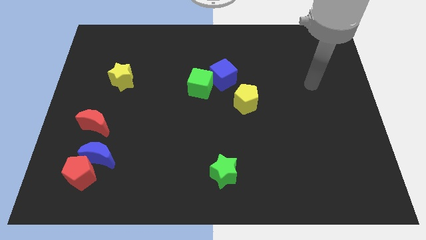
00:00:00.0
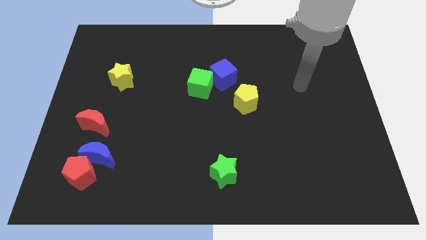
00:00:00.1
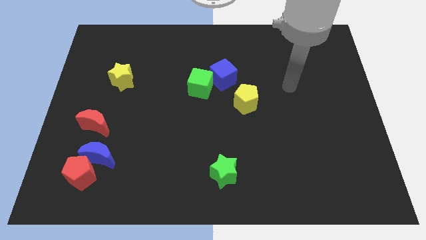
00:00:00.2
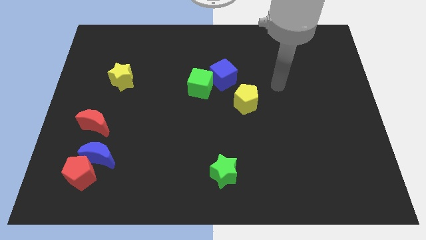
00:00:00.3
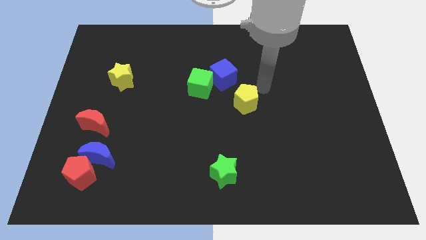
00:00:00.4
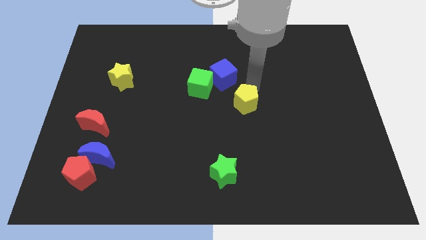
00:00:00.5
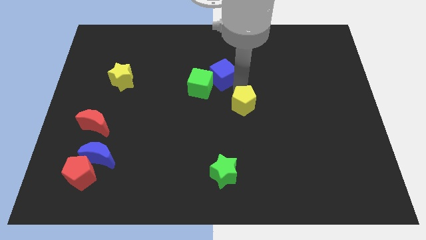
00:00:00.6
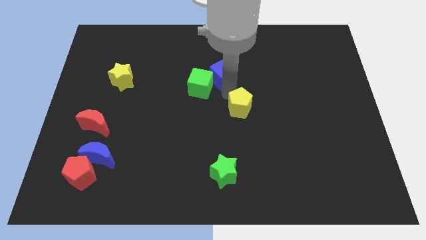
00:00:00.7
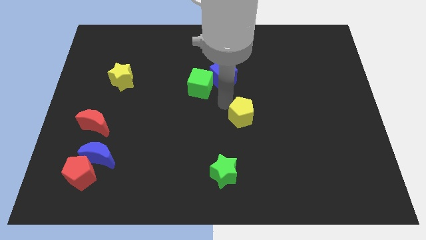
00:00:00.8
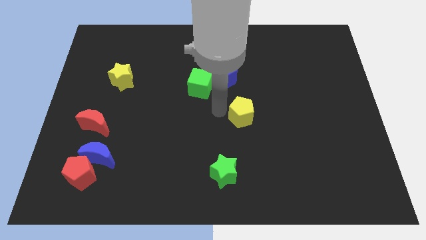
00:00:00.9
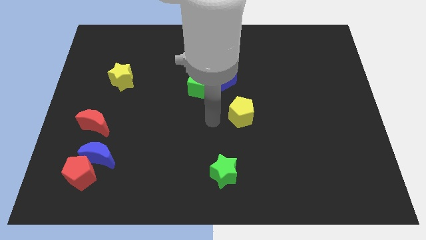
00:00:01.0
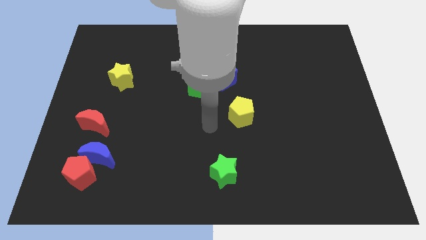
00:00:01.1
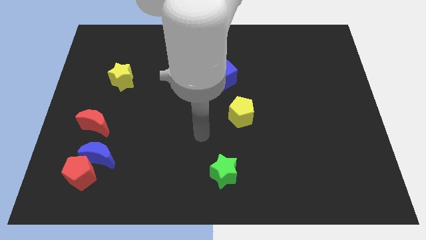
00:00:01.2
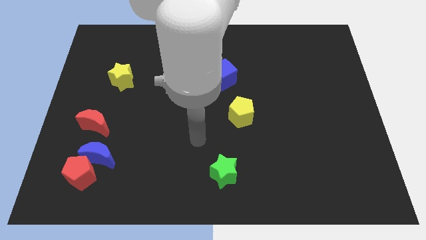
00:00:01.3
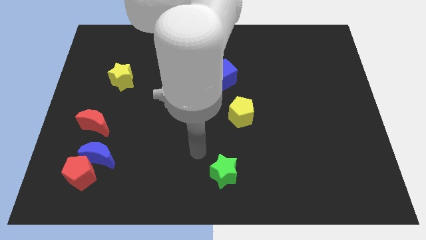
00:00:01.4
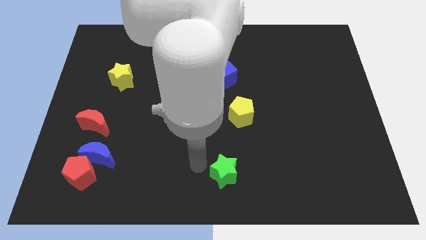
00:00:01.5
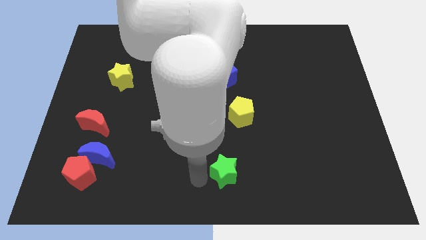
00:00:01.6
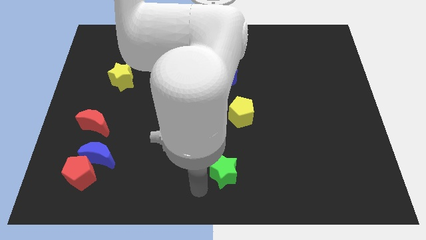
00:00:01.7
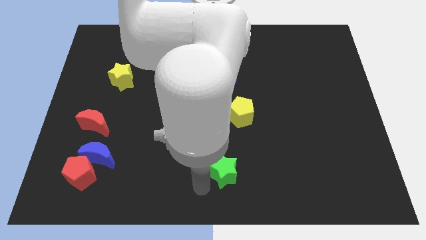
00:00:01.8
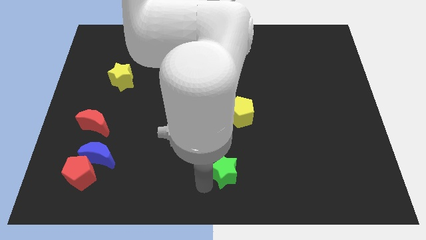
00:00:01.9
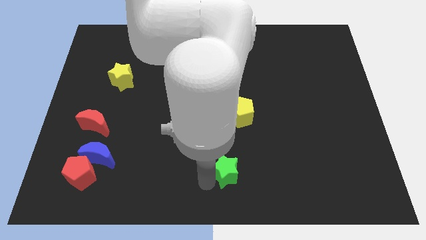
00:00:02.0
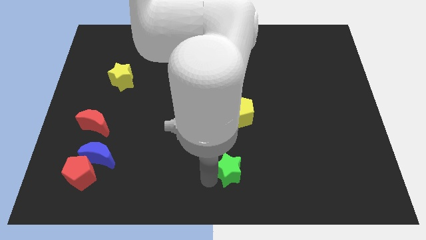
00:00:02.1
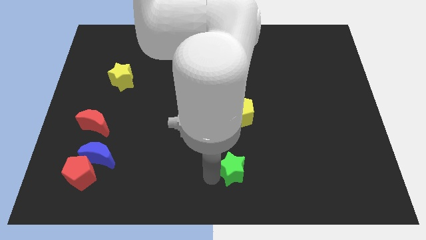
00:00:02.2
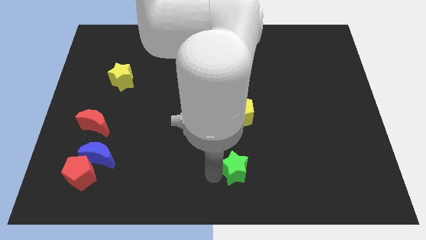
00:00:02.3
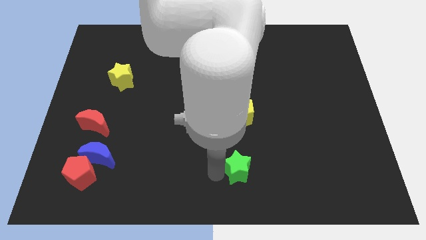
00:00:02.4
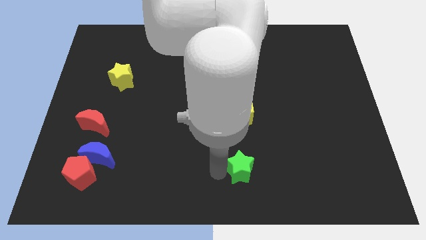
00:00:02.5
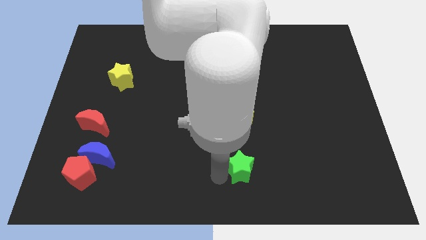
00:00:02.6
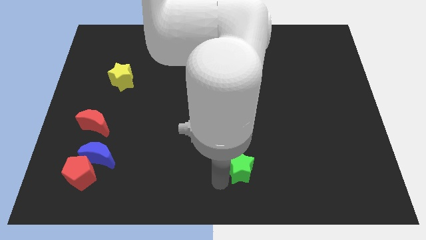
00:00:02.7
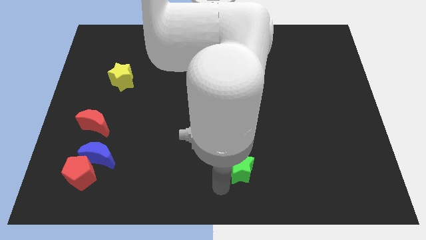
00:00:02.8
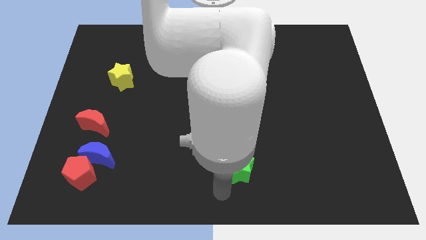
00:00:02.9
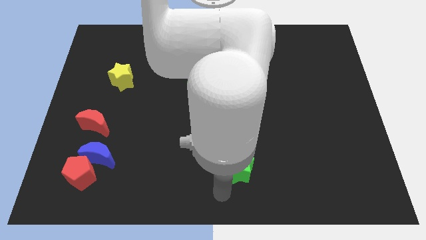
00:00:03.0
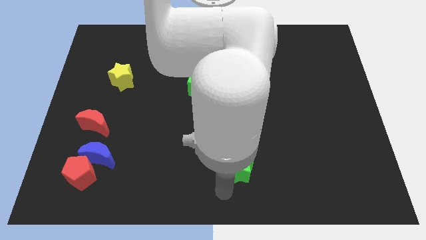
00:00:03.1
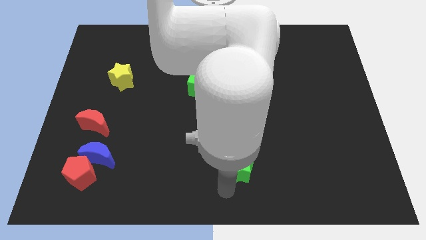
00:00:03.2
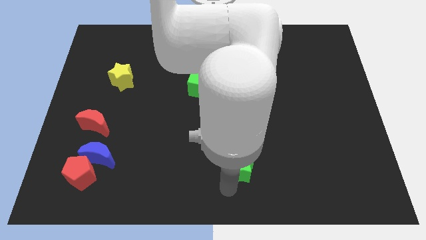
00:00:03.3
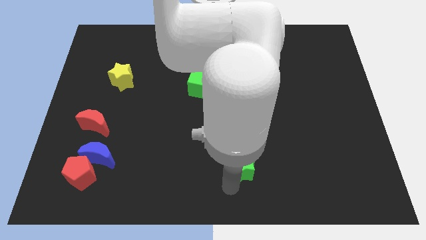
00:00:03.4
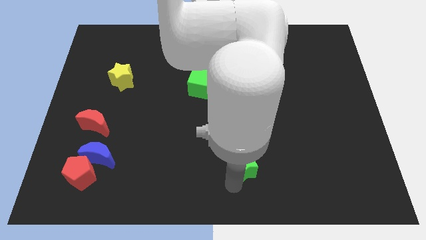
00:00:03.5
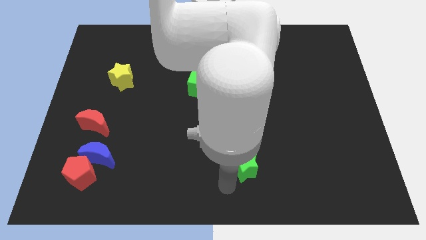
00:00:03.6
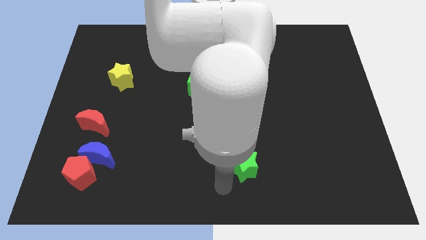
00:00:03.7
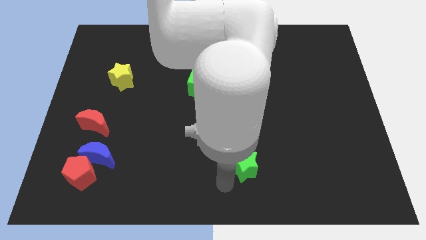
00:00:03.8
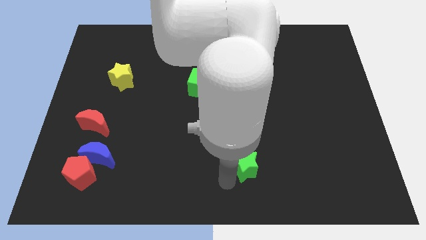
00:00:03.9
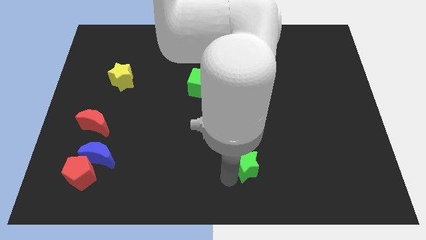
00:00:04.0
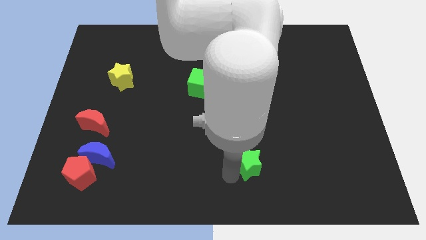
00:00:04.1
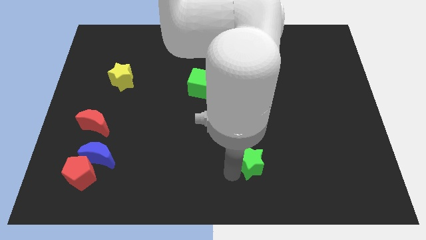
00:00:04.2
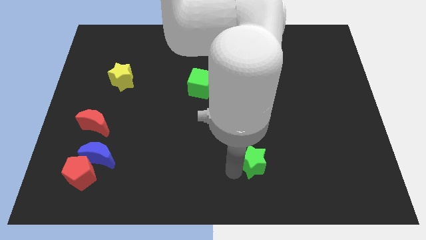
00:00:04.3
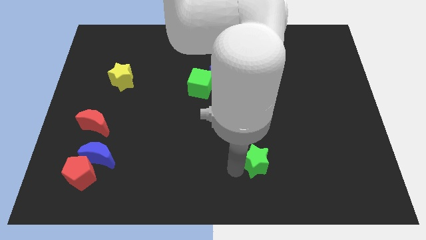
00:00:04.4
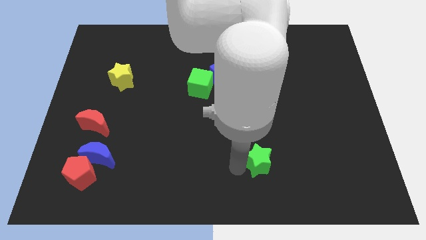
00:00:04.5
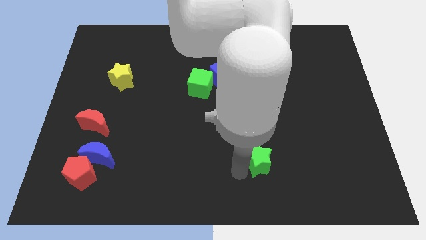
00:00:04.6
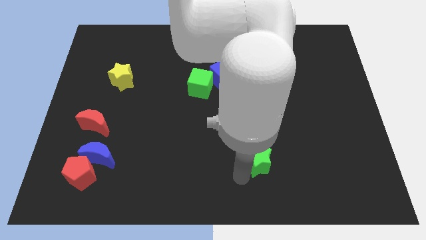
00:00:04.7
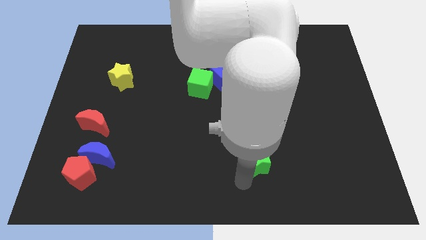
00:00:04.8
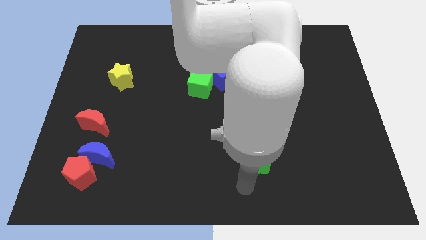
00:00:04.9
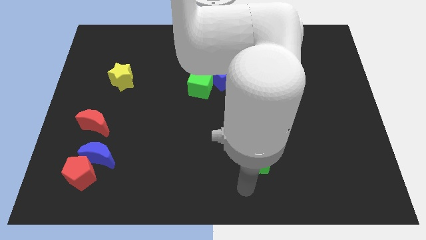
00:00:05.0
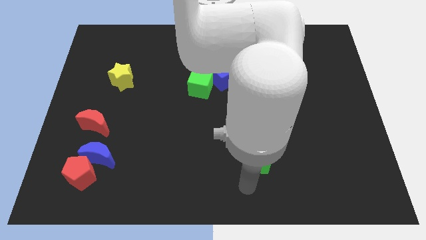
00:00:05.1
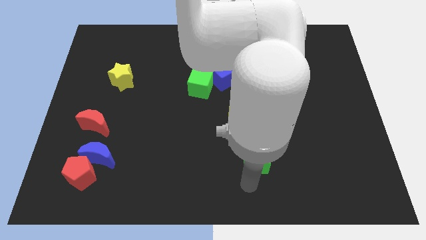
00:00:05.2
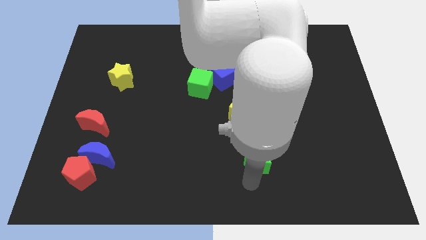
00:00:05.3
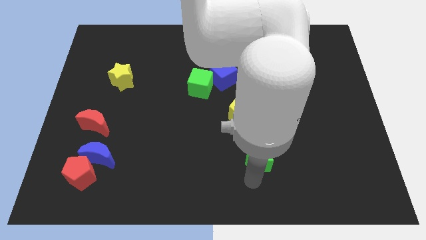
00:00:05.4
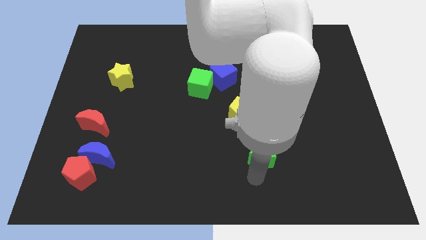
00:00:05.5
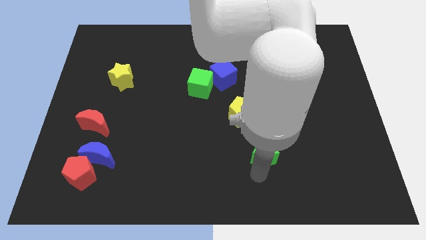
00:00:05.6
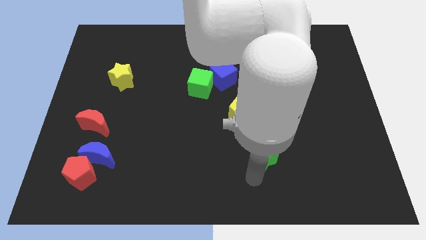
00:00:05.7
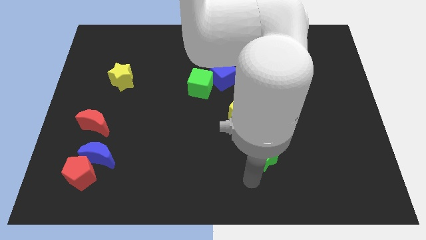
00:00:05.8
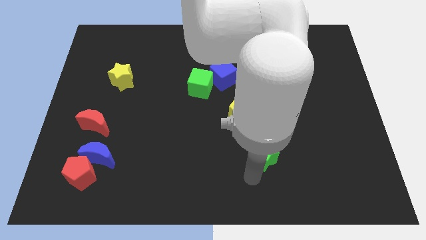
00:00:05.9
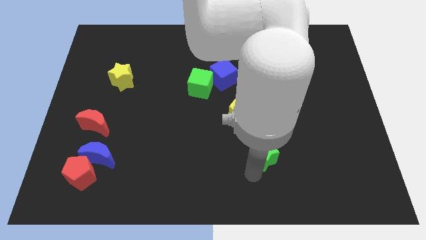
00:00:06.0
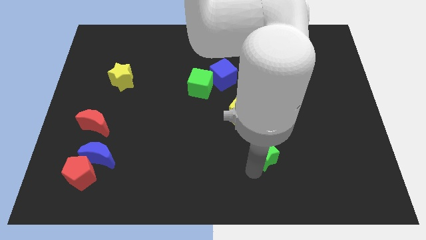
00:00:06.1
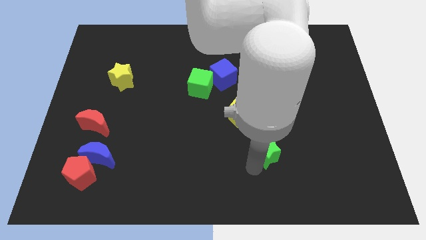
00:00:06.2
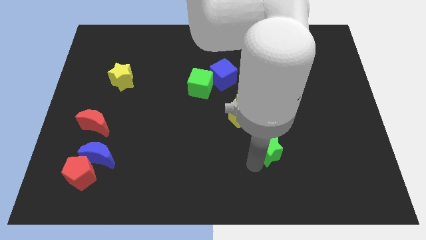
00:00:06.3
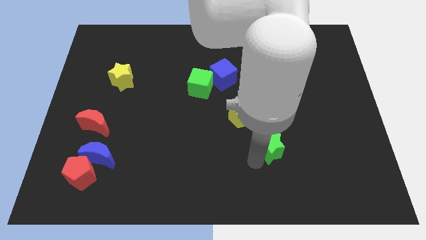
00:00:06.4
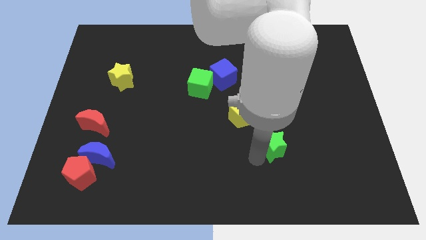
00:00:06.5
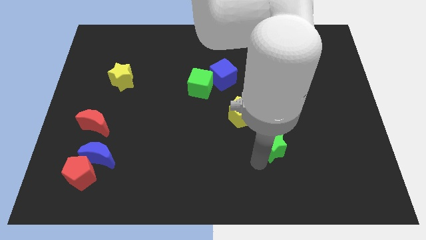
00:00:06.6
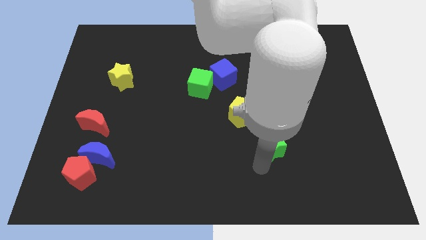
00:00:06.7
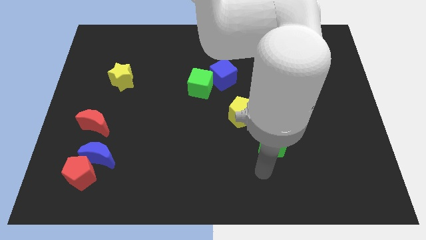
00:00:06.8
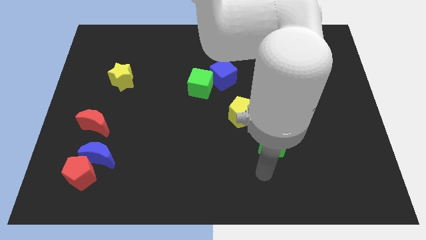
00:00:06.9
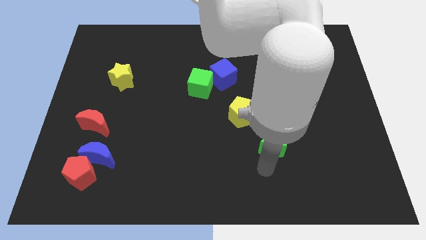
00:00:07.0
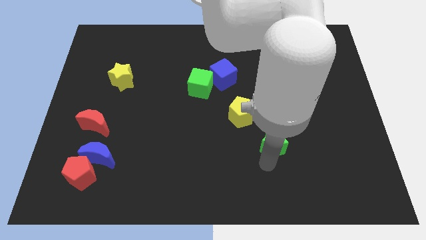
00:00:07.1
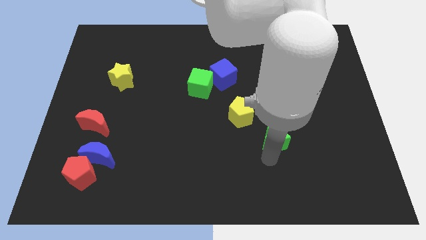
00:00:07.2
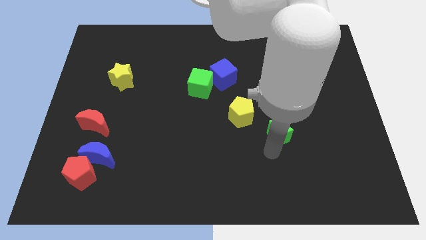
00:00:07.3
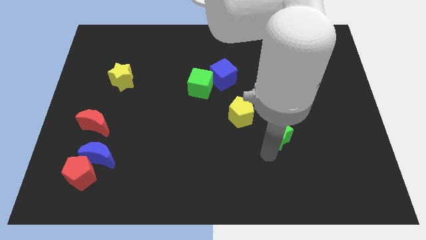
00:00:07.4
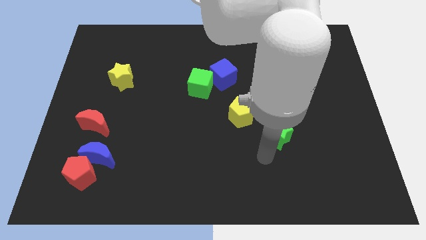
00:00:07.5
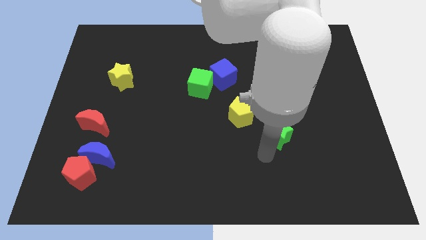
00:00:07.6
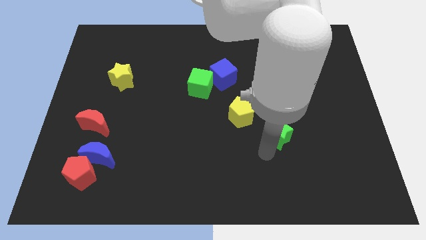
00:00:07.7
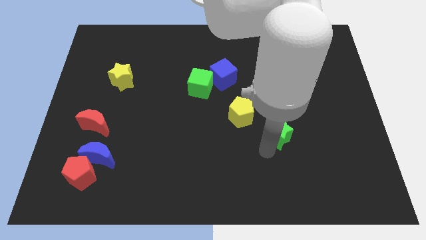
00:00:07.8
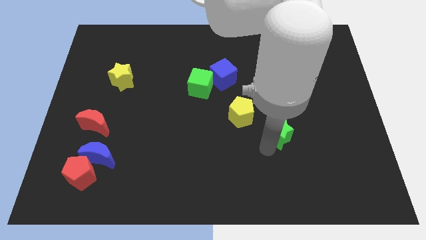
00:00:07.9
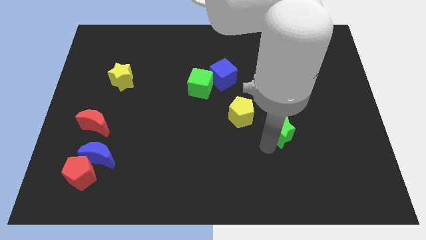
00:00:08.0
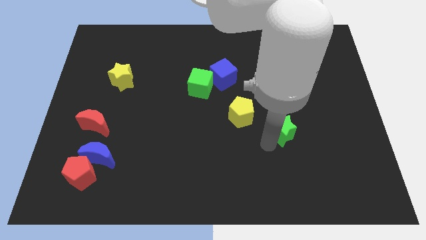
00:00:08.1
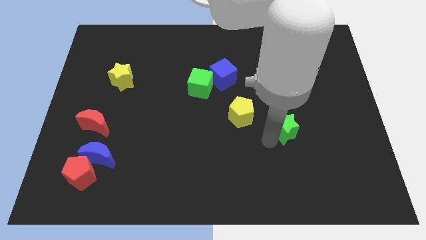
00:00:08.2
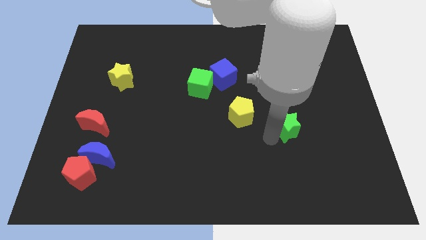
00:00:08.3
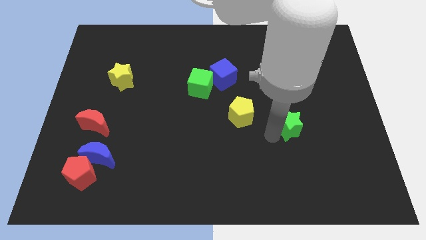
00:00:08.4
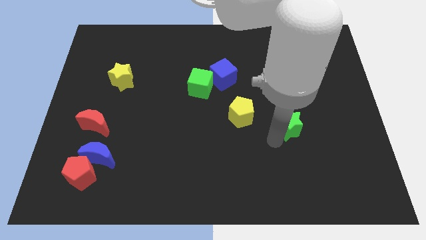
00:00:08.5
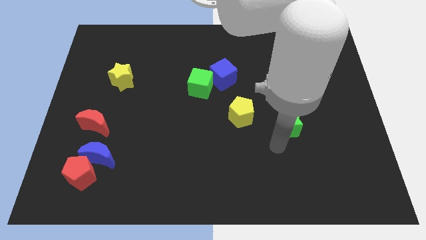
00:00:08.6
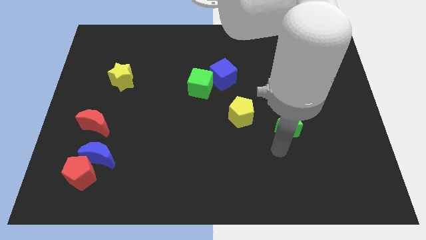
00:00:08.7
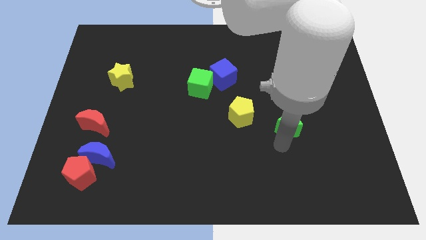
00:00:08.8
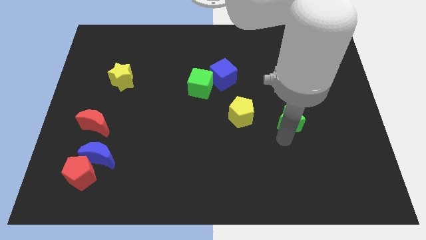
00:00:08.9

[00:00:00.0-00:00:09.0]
push the green star up and to the right diagonally
